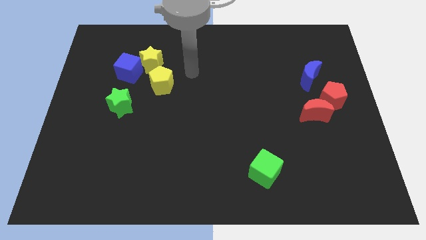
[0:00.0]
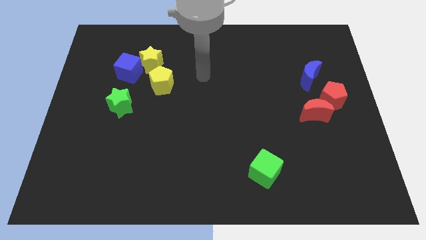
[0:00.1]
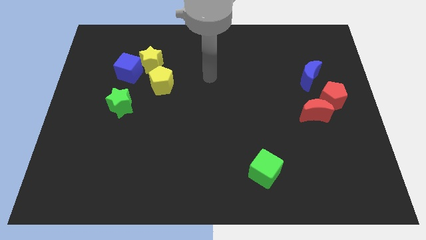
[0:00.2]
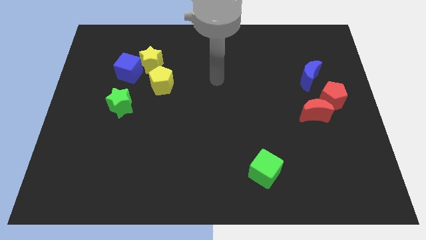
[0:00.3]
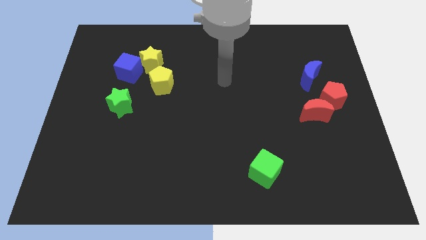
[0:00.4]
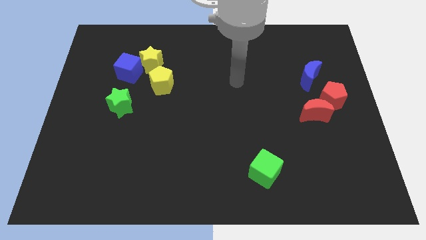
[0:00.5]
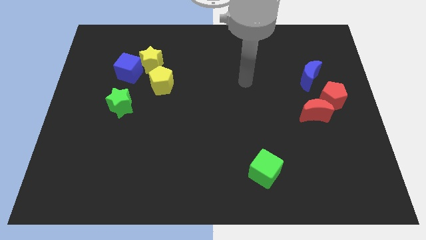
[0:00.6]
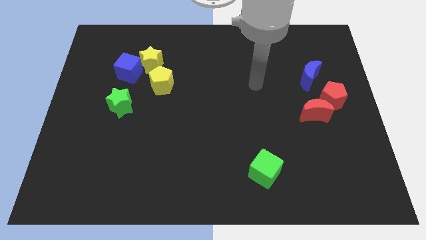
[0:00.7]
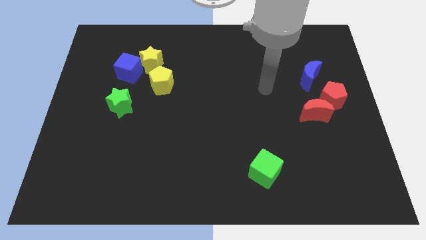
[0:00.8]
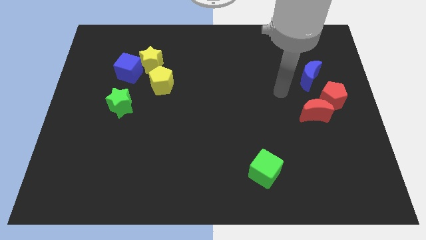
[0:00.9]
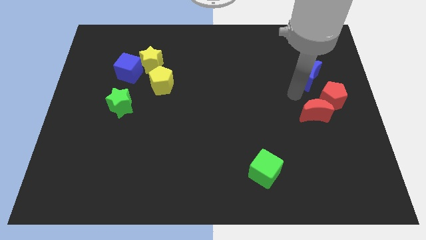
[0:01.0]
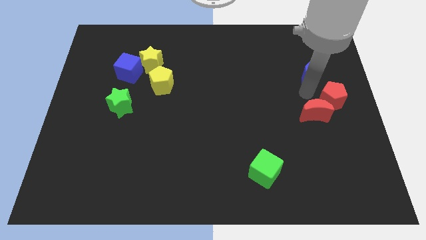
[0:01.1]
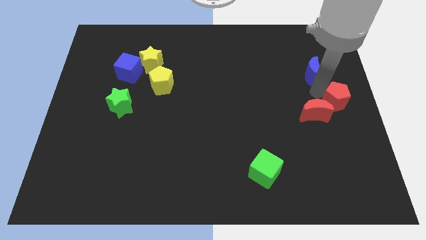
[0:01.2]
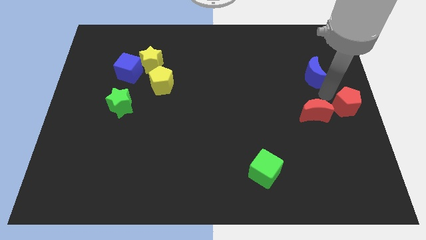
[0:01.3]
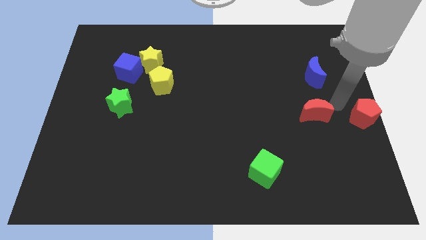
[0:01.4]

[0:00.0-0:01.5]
move the red moon away from the red pentagon

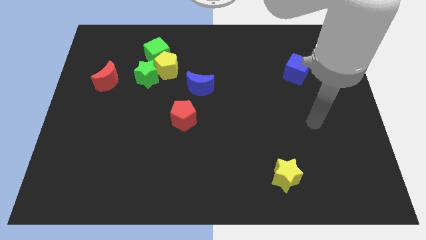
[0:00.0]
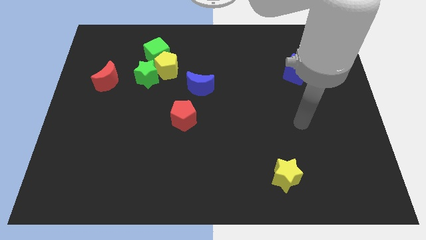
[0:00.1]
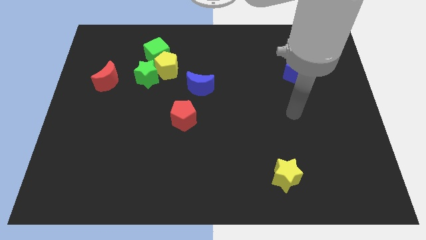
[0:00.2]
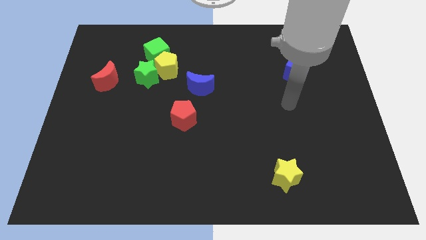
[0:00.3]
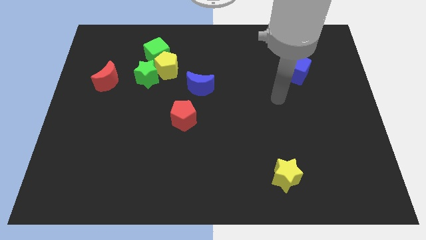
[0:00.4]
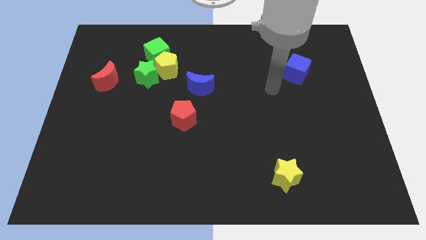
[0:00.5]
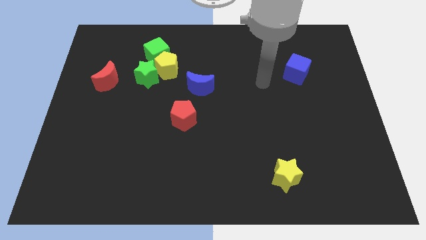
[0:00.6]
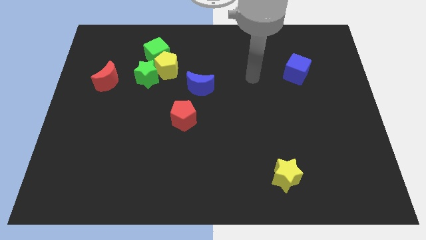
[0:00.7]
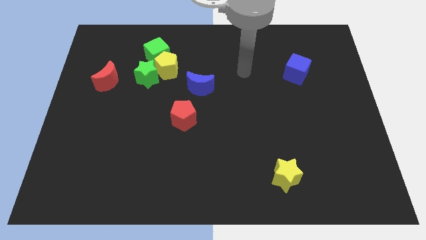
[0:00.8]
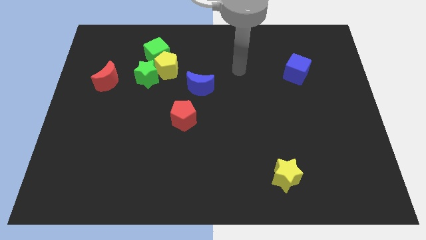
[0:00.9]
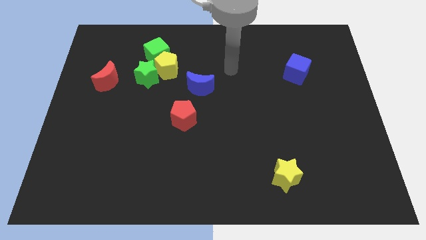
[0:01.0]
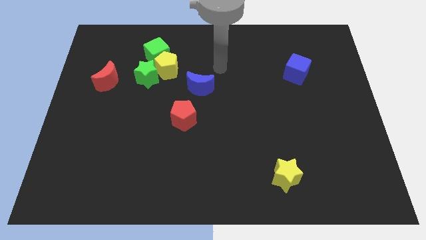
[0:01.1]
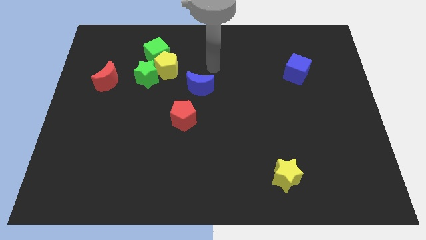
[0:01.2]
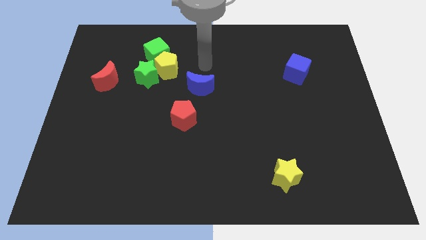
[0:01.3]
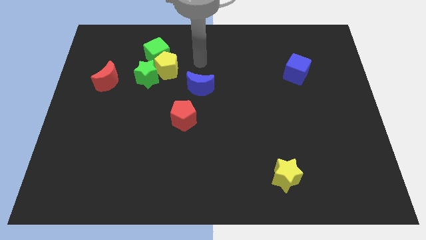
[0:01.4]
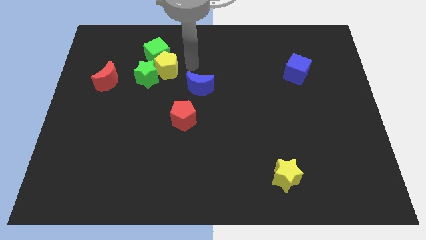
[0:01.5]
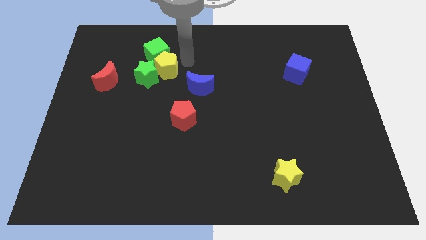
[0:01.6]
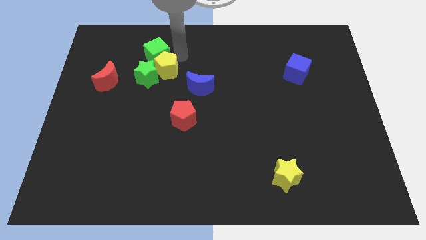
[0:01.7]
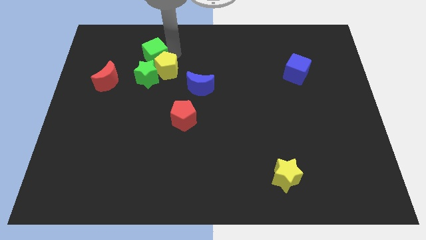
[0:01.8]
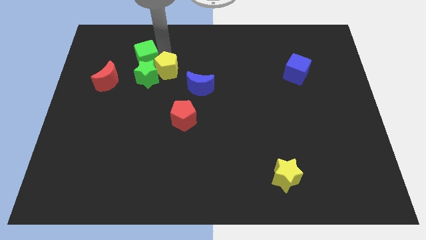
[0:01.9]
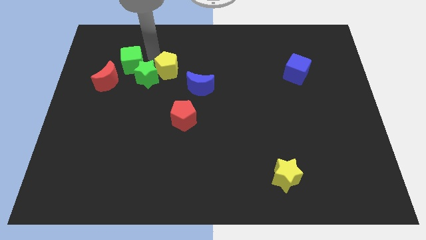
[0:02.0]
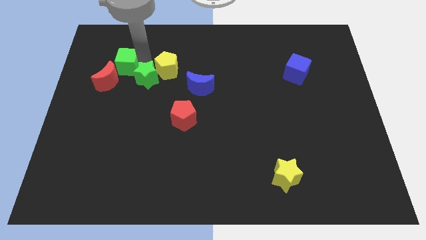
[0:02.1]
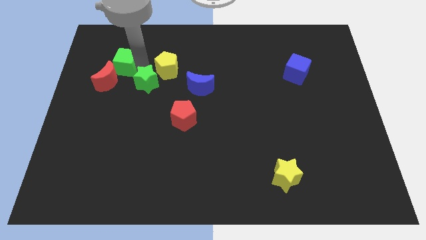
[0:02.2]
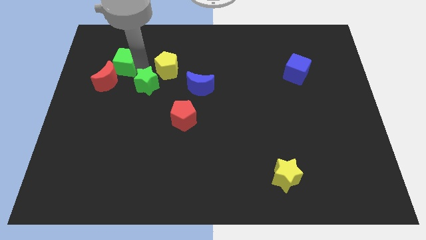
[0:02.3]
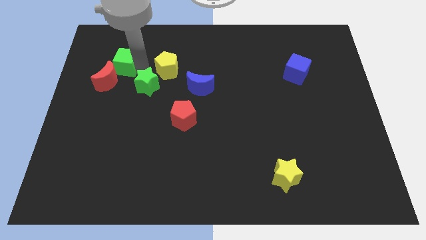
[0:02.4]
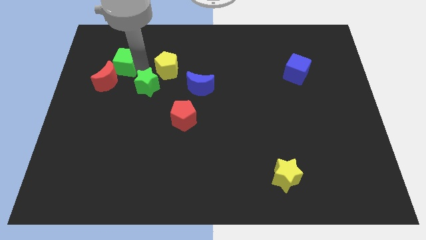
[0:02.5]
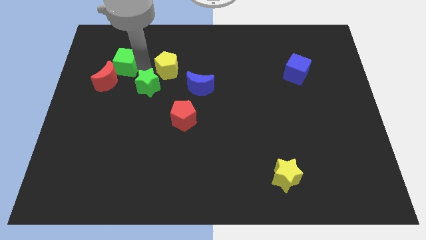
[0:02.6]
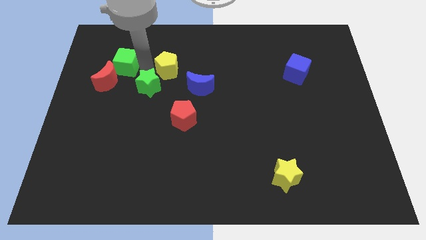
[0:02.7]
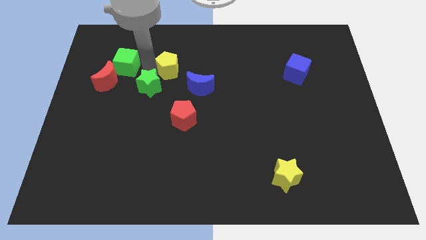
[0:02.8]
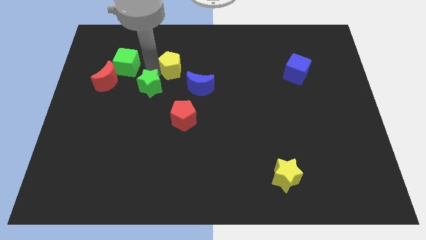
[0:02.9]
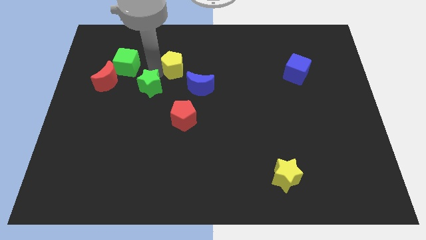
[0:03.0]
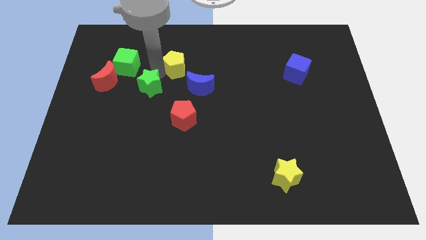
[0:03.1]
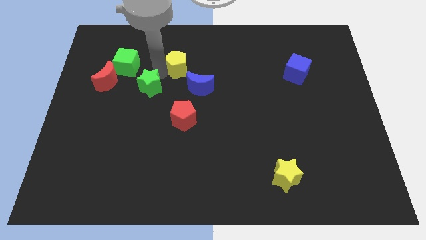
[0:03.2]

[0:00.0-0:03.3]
separate the yellow pentagon from the green cube and green star

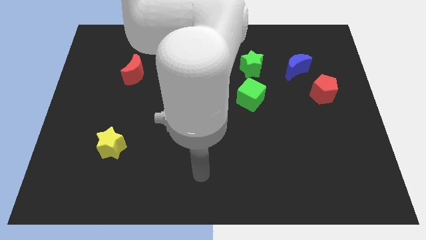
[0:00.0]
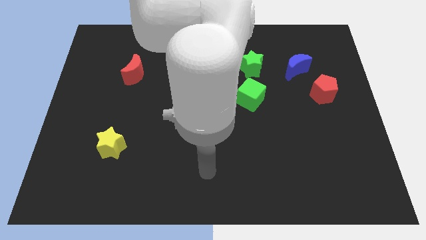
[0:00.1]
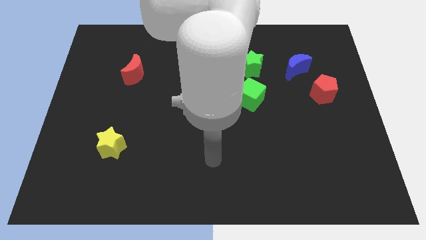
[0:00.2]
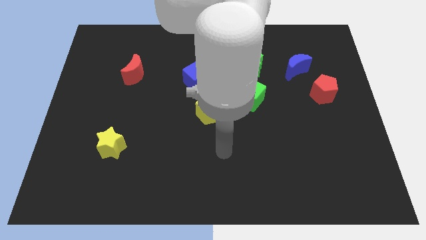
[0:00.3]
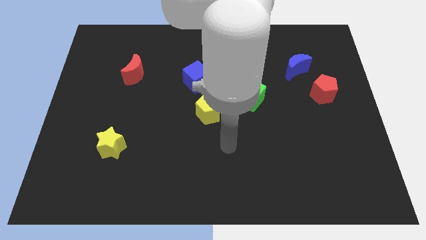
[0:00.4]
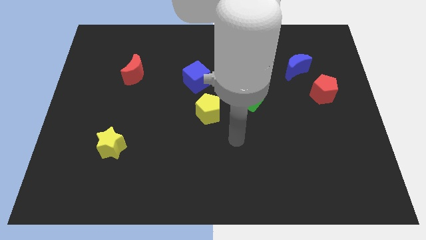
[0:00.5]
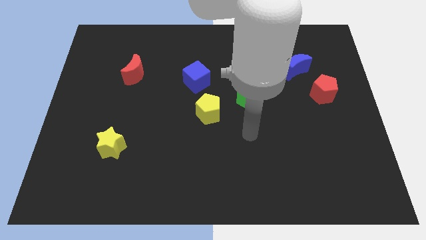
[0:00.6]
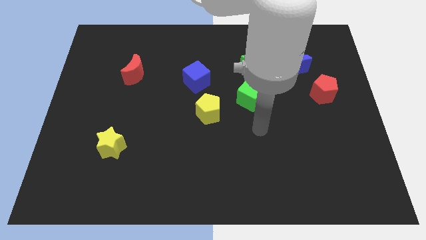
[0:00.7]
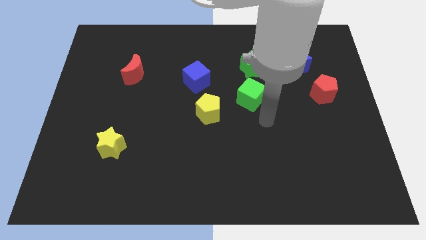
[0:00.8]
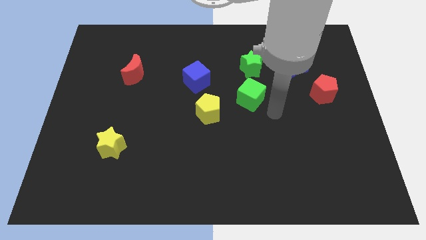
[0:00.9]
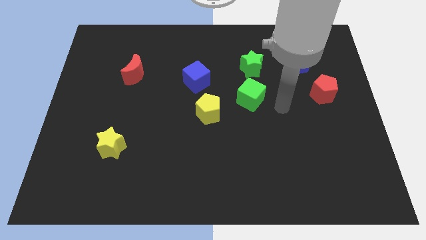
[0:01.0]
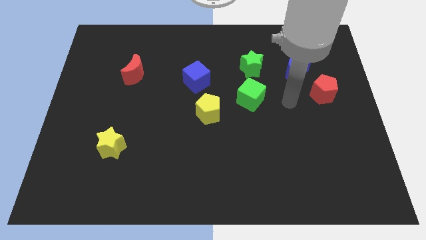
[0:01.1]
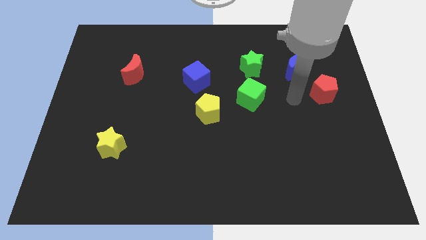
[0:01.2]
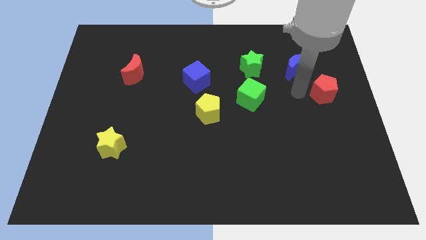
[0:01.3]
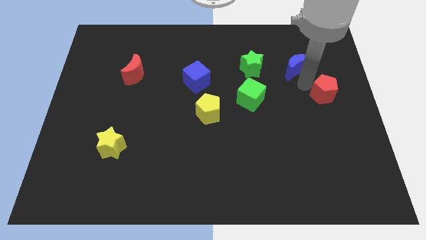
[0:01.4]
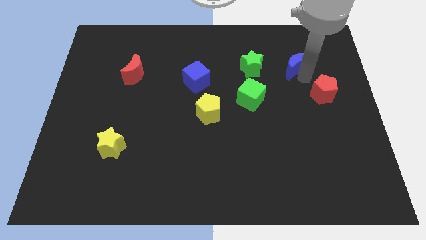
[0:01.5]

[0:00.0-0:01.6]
pull the red pentagon apart from the blue moon

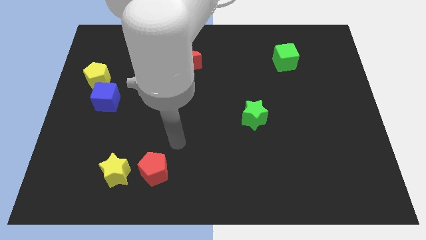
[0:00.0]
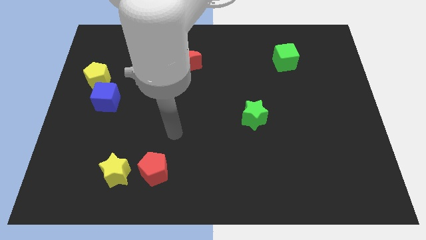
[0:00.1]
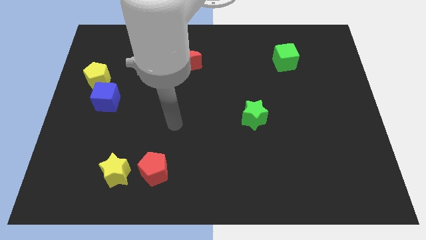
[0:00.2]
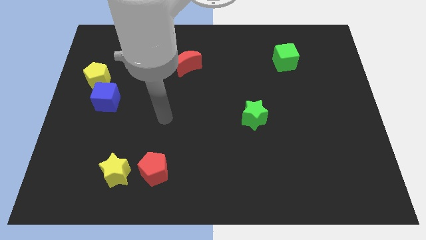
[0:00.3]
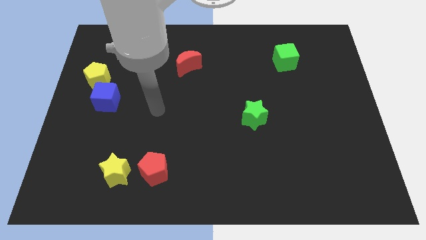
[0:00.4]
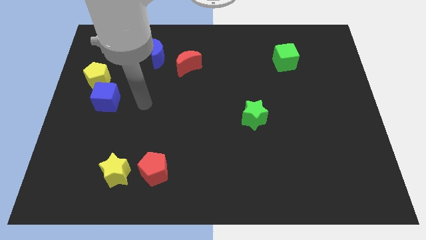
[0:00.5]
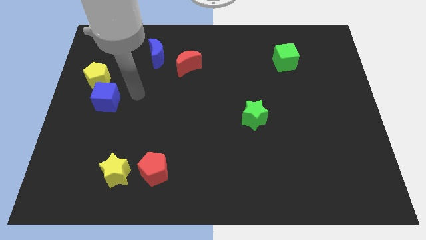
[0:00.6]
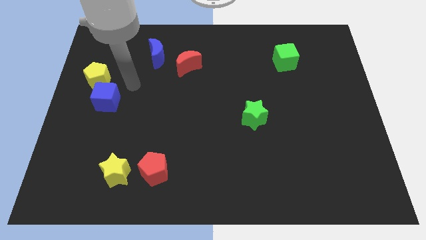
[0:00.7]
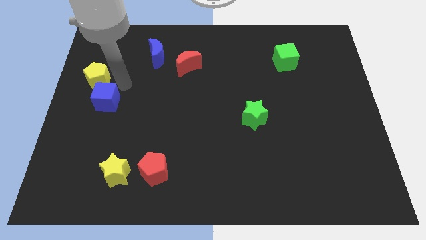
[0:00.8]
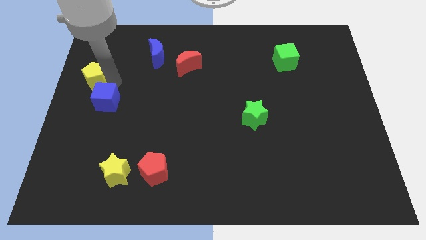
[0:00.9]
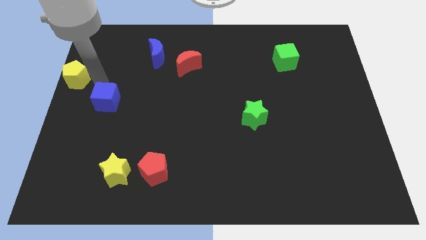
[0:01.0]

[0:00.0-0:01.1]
pull the blue cube apart from the yellow pentagon

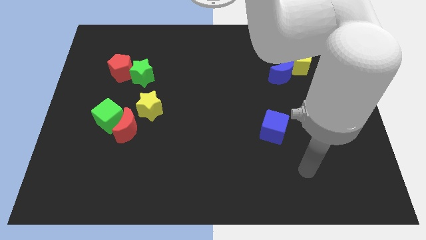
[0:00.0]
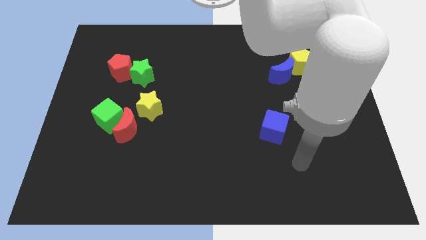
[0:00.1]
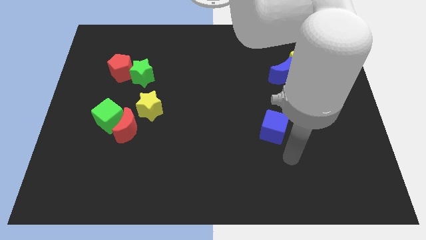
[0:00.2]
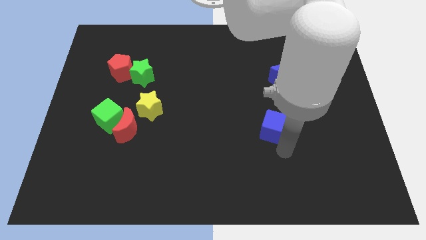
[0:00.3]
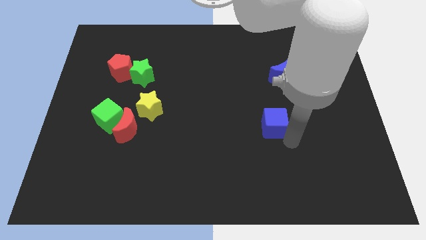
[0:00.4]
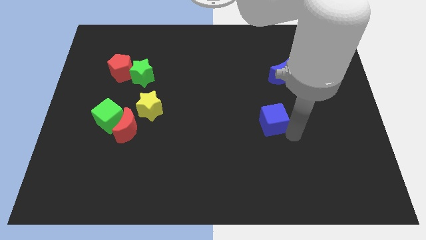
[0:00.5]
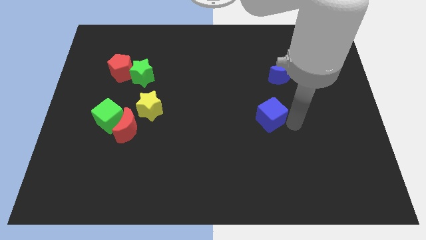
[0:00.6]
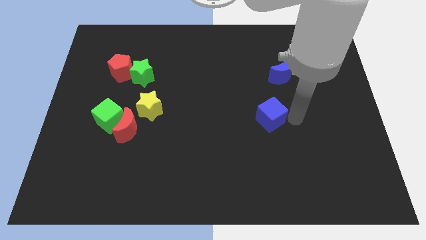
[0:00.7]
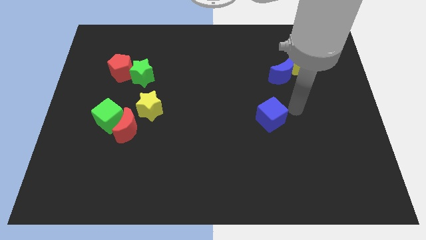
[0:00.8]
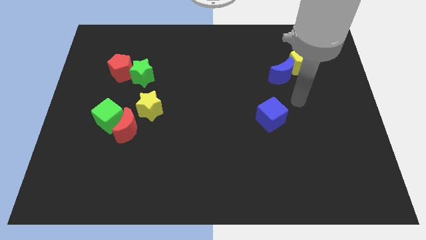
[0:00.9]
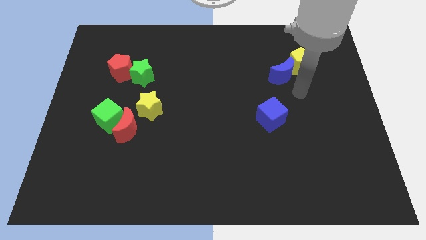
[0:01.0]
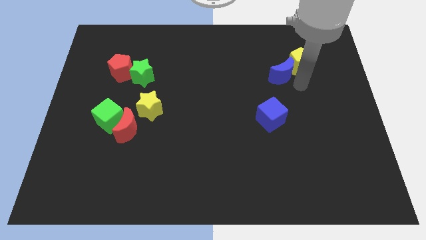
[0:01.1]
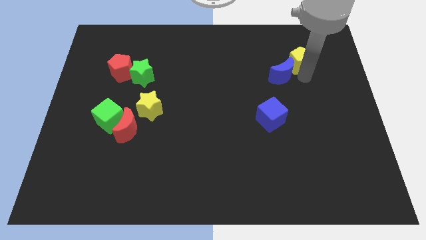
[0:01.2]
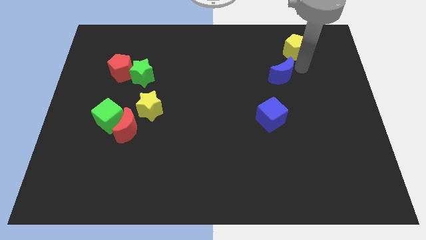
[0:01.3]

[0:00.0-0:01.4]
move the blue moon away from the yellow pentagon

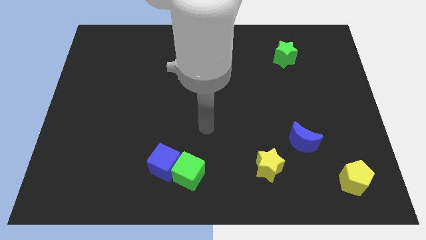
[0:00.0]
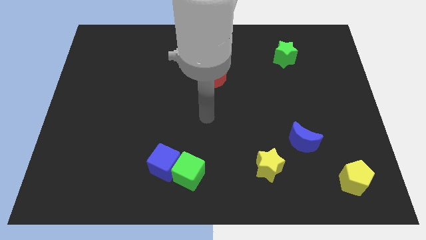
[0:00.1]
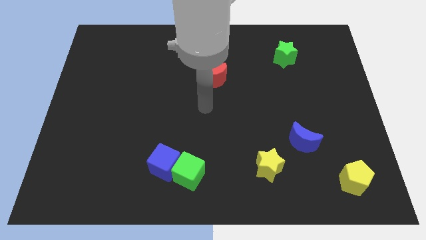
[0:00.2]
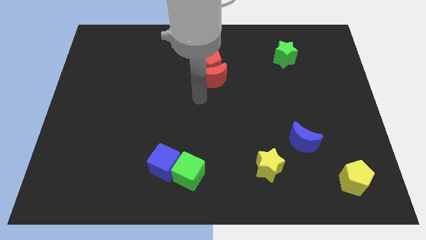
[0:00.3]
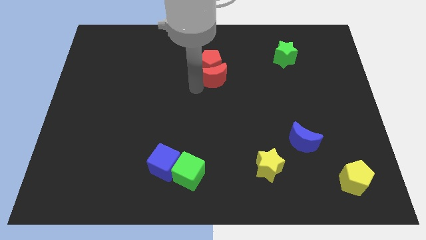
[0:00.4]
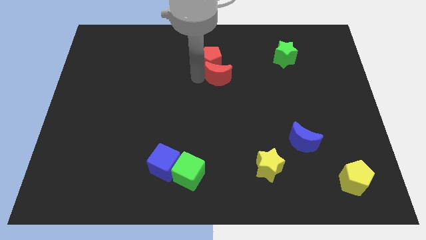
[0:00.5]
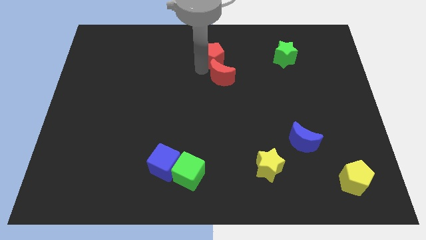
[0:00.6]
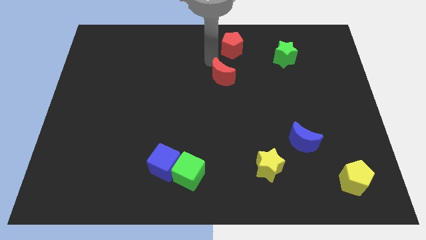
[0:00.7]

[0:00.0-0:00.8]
pull the red moon apart from the red pentagon
